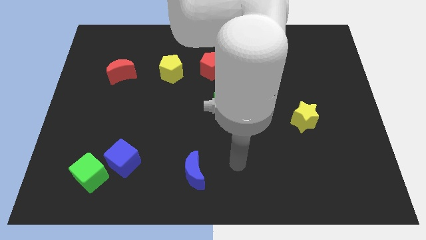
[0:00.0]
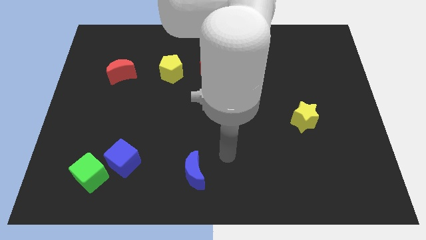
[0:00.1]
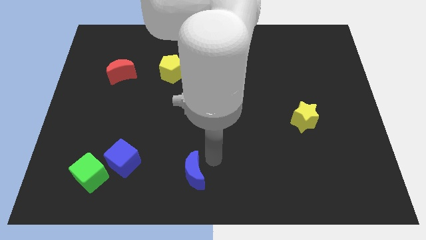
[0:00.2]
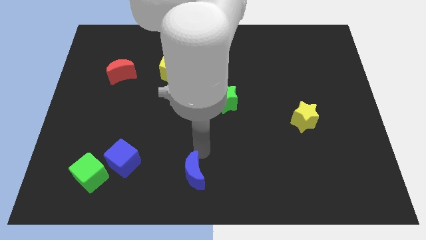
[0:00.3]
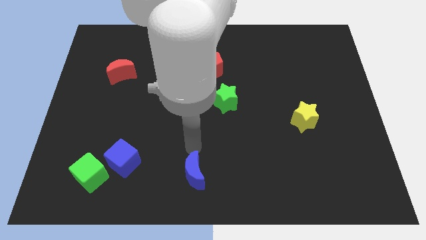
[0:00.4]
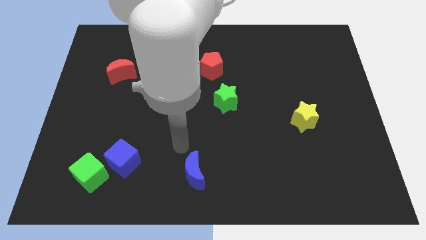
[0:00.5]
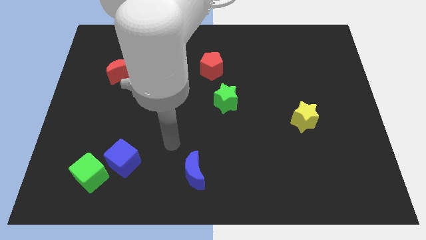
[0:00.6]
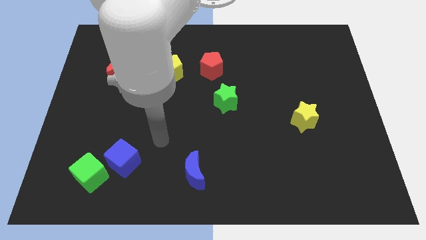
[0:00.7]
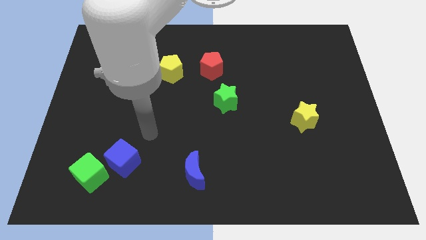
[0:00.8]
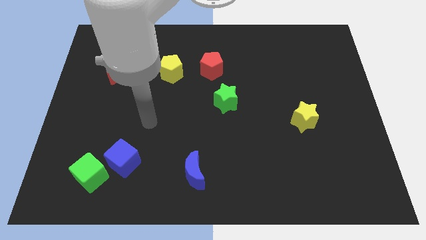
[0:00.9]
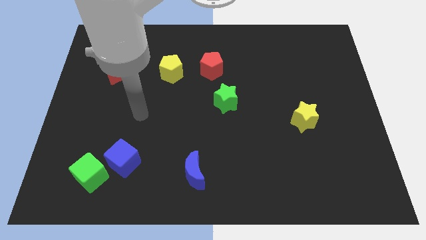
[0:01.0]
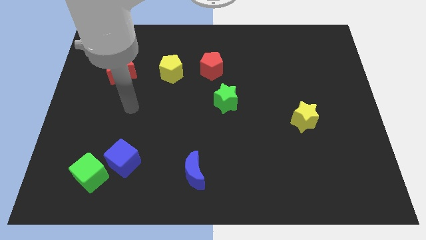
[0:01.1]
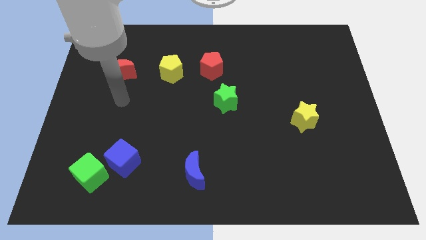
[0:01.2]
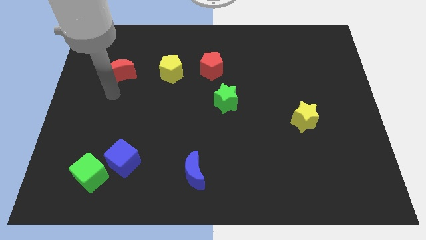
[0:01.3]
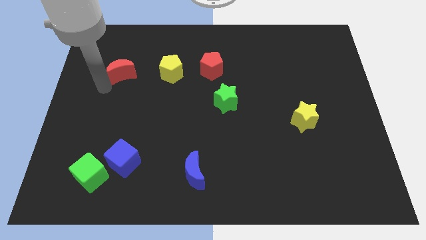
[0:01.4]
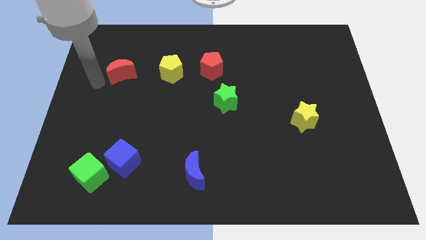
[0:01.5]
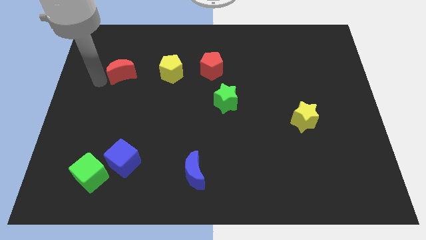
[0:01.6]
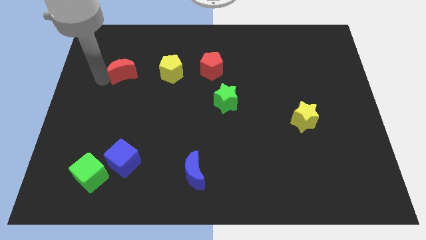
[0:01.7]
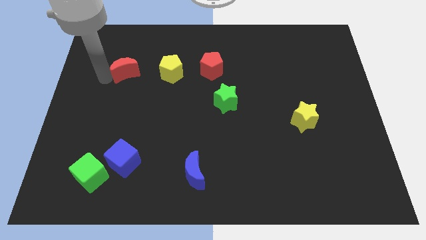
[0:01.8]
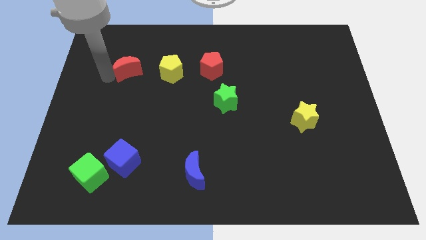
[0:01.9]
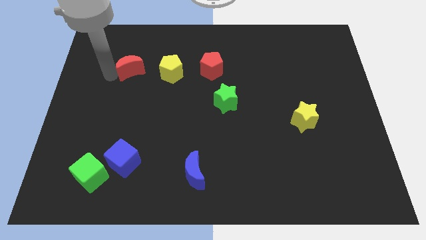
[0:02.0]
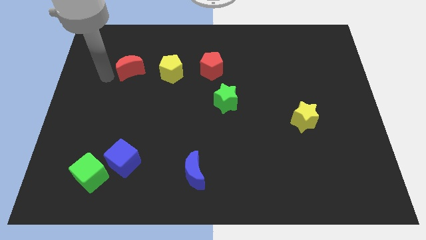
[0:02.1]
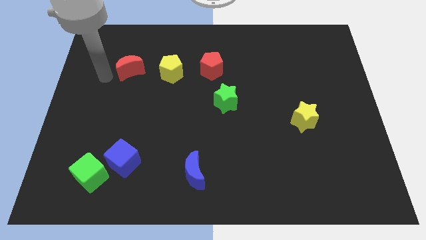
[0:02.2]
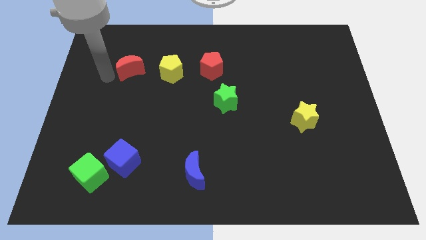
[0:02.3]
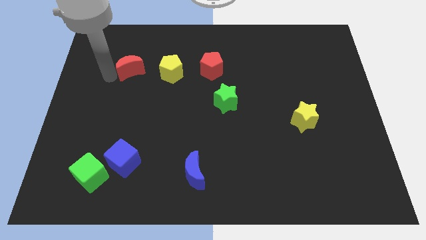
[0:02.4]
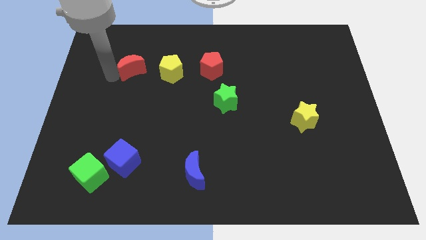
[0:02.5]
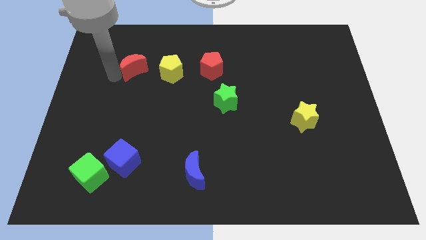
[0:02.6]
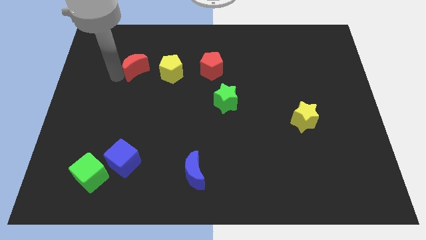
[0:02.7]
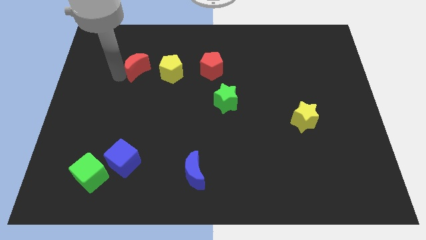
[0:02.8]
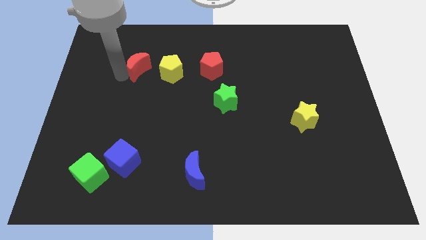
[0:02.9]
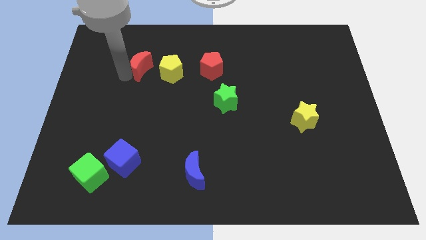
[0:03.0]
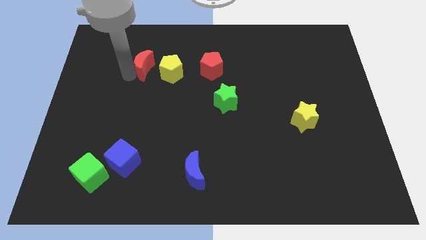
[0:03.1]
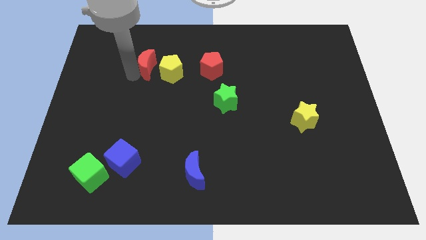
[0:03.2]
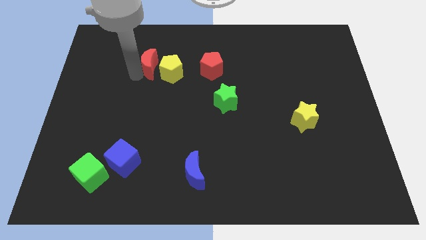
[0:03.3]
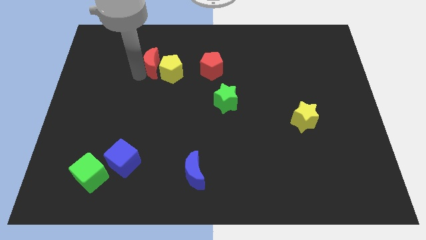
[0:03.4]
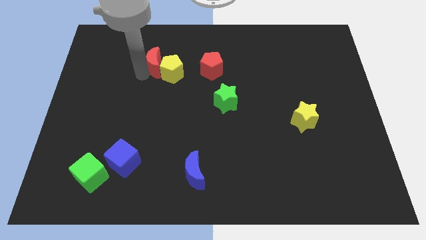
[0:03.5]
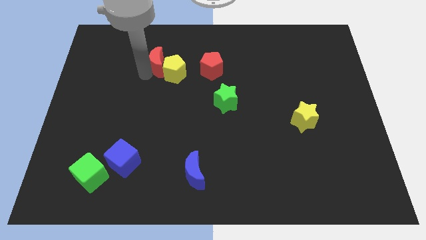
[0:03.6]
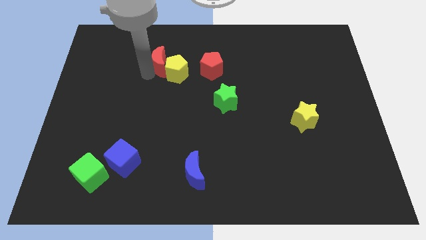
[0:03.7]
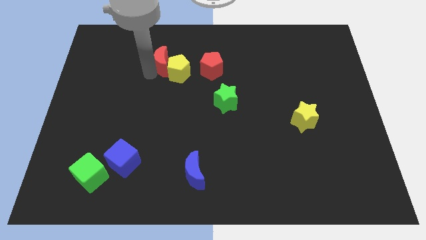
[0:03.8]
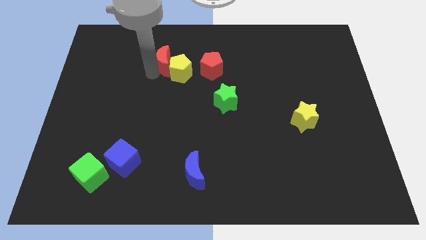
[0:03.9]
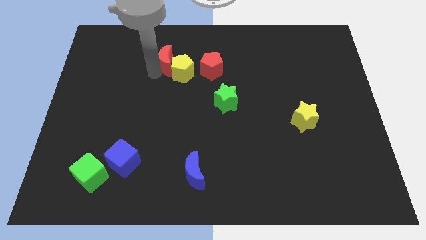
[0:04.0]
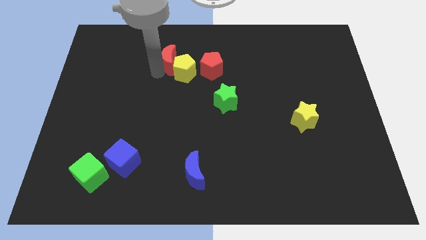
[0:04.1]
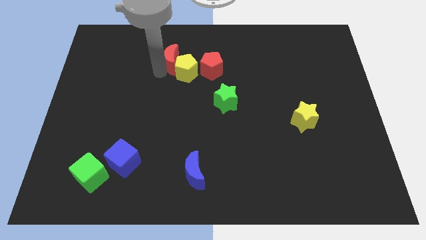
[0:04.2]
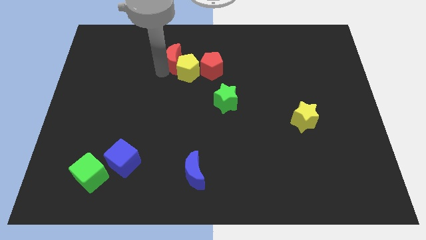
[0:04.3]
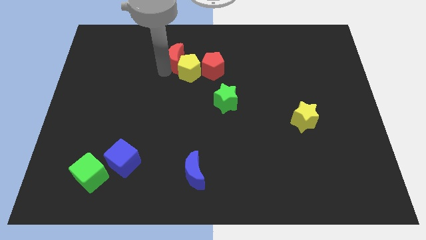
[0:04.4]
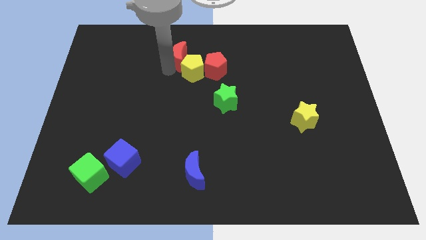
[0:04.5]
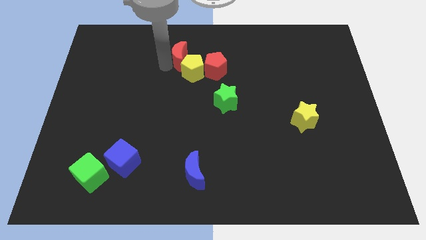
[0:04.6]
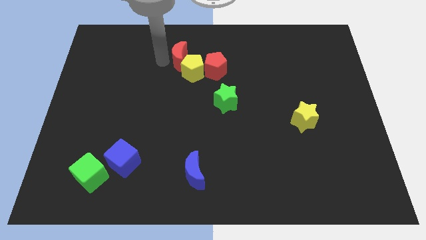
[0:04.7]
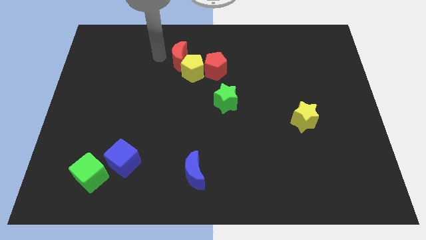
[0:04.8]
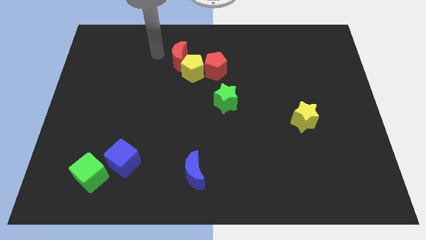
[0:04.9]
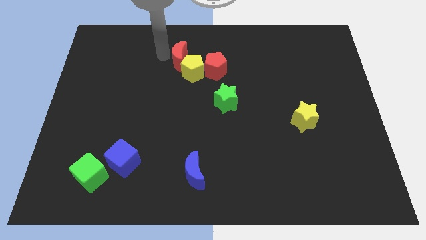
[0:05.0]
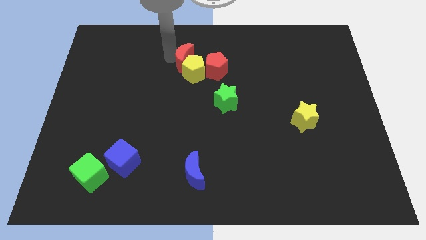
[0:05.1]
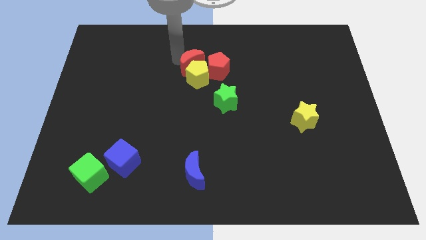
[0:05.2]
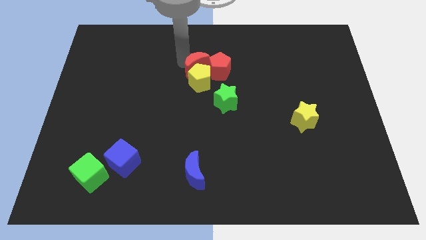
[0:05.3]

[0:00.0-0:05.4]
push the red moon close to the red pentagon

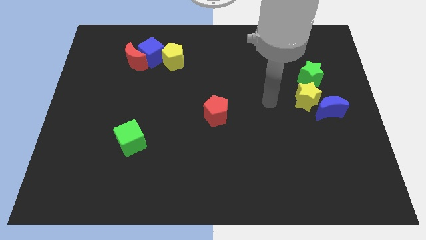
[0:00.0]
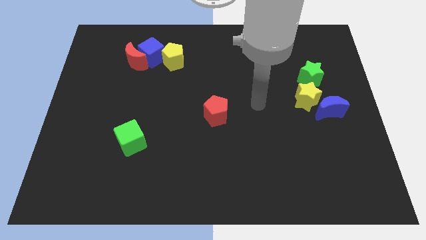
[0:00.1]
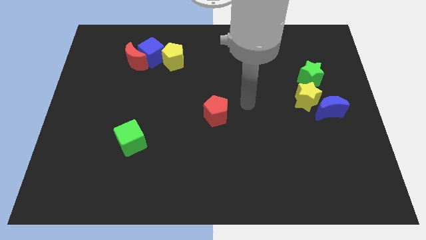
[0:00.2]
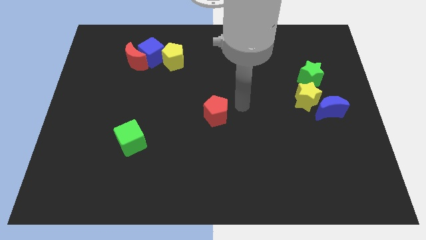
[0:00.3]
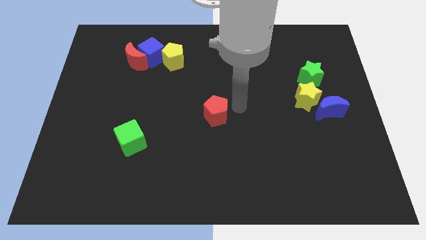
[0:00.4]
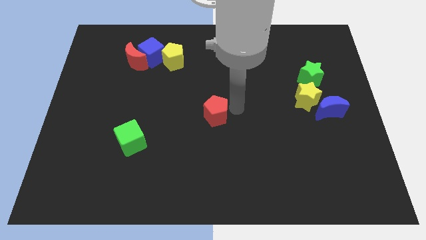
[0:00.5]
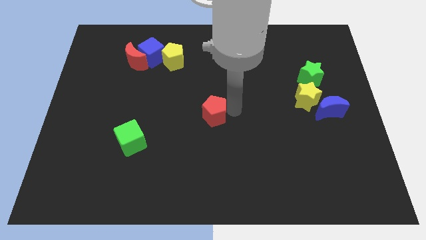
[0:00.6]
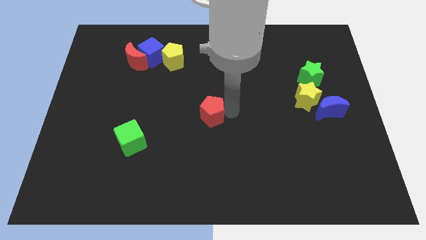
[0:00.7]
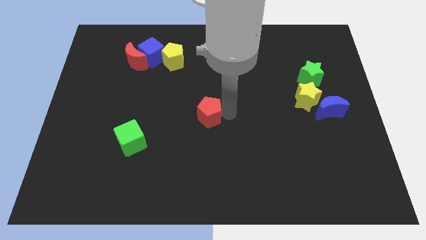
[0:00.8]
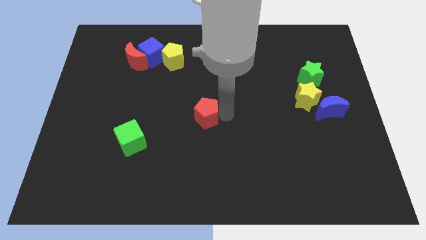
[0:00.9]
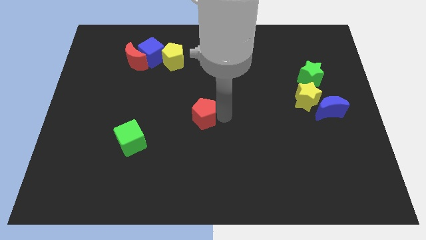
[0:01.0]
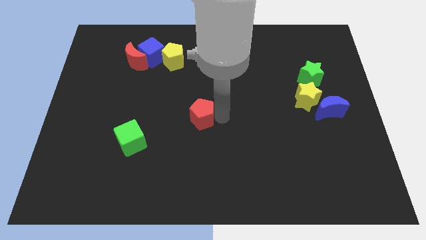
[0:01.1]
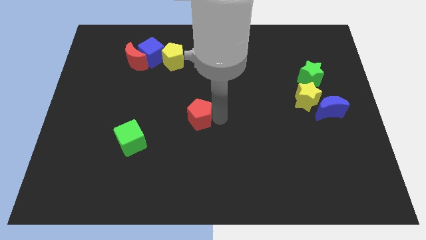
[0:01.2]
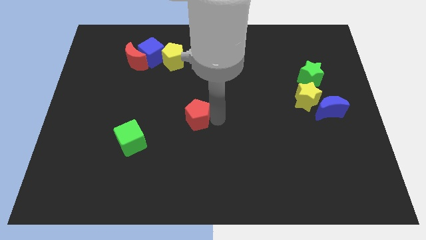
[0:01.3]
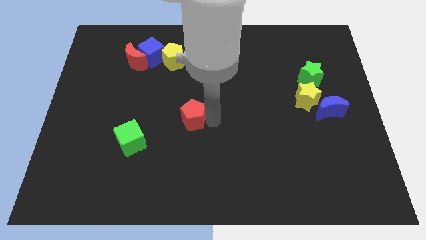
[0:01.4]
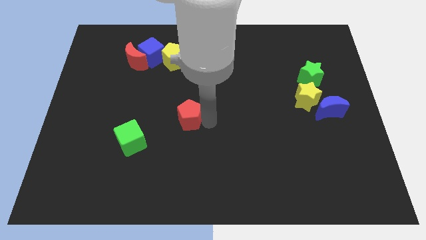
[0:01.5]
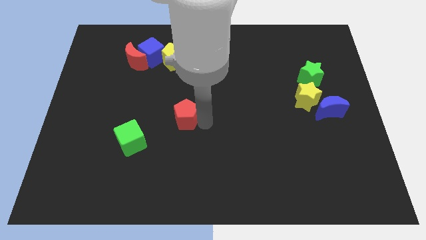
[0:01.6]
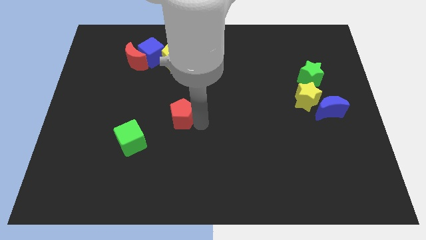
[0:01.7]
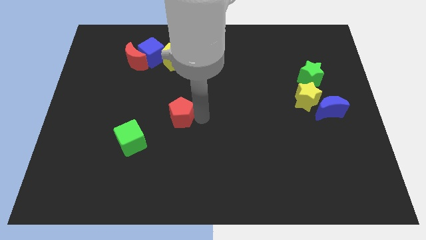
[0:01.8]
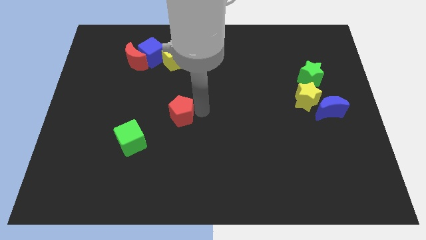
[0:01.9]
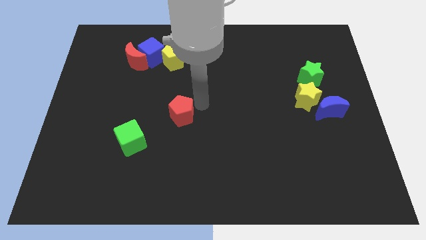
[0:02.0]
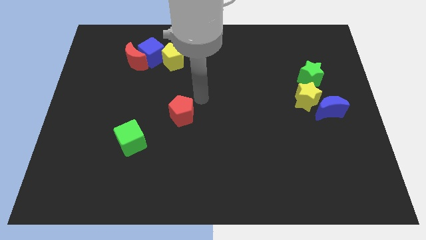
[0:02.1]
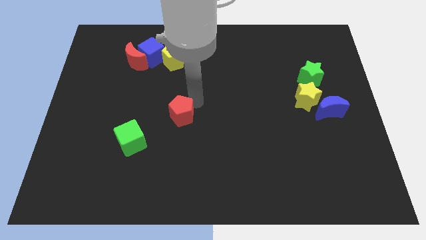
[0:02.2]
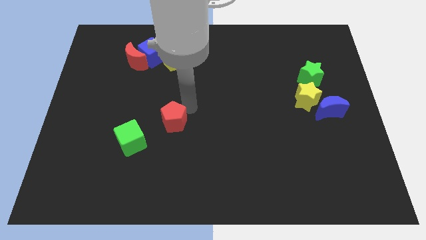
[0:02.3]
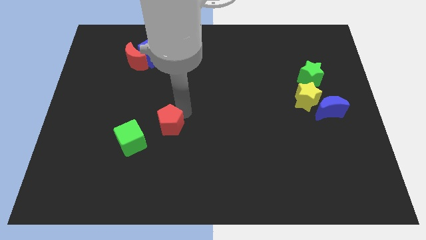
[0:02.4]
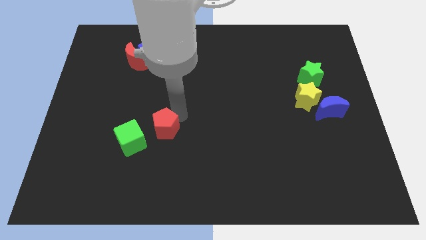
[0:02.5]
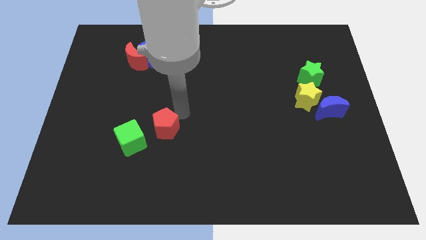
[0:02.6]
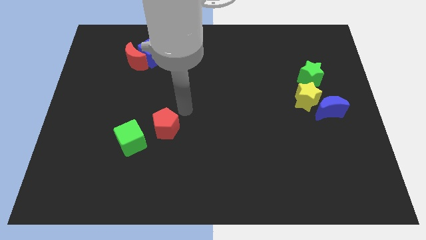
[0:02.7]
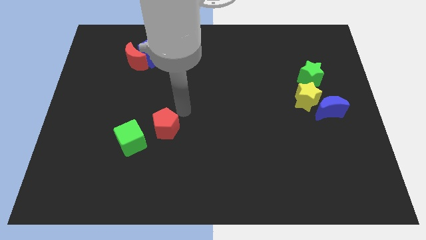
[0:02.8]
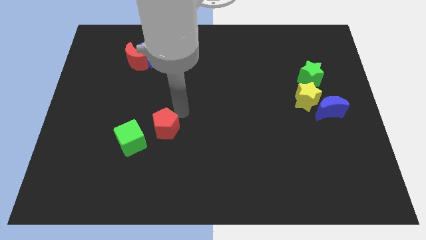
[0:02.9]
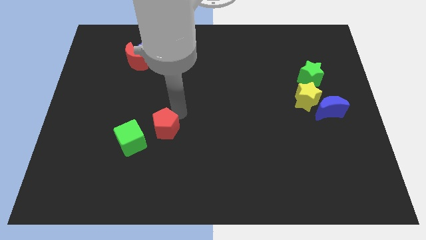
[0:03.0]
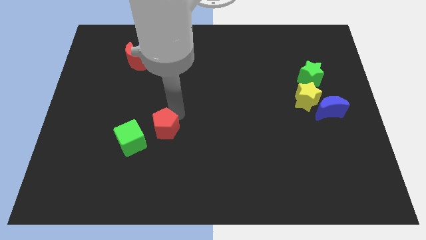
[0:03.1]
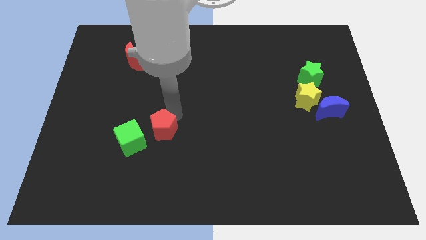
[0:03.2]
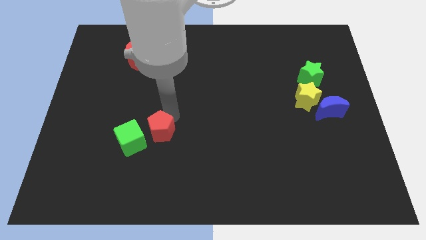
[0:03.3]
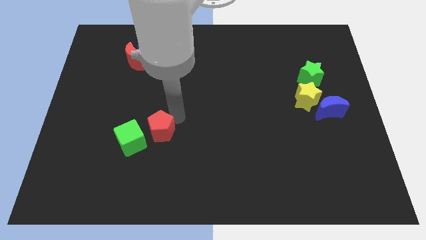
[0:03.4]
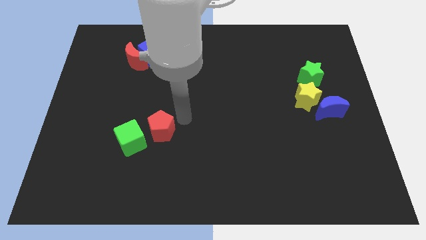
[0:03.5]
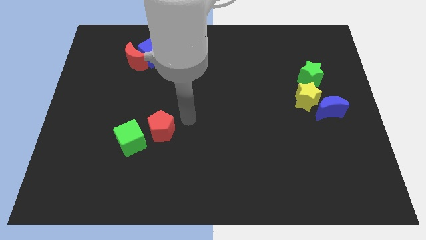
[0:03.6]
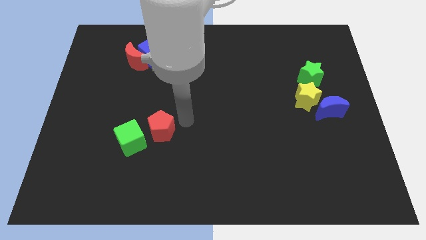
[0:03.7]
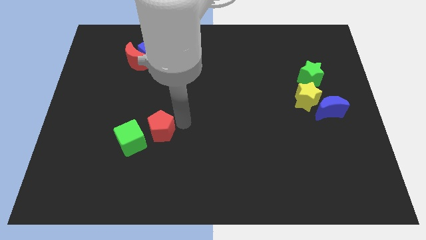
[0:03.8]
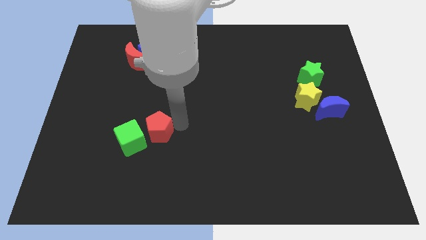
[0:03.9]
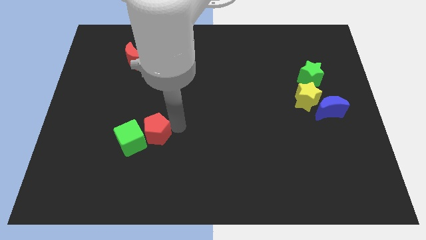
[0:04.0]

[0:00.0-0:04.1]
push the red pentagon close to the green cube
